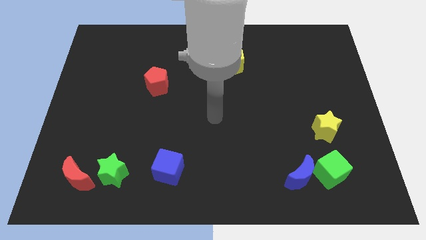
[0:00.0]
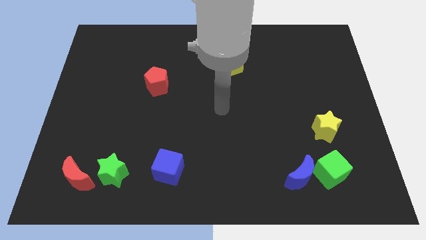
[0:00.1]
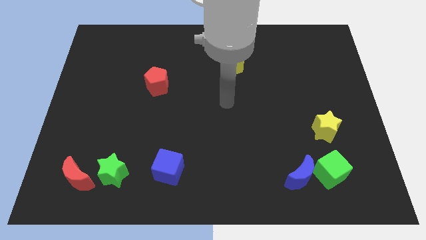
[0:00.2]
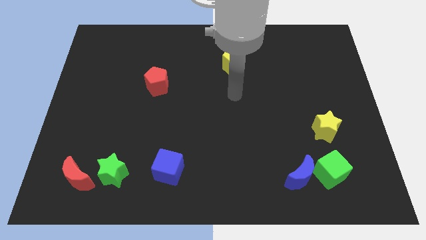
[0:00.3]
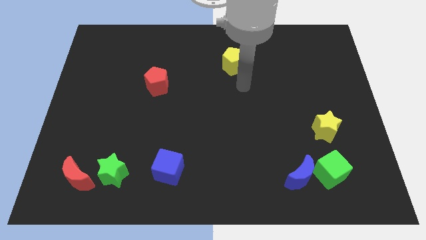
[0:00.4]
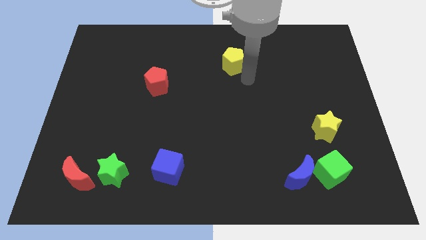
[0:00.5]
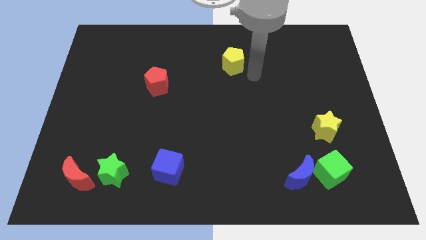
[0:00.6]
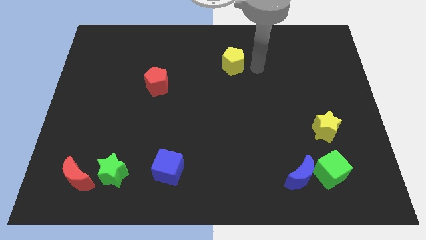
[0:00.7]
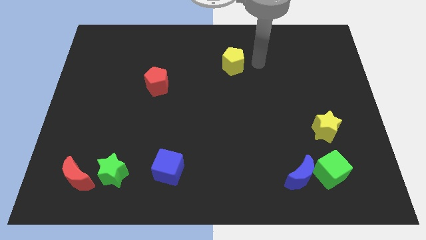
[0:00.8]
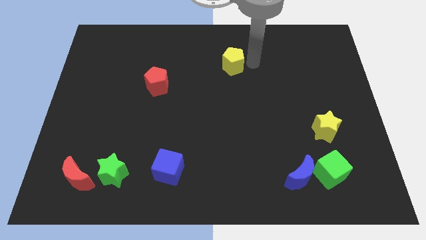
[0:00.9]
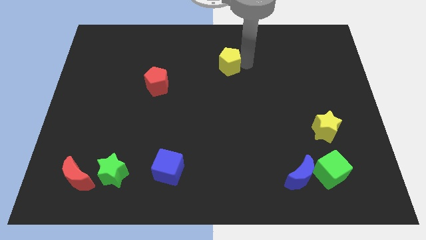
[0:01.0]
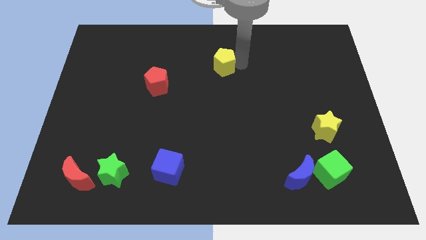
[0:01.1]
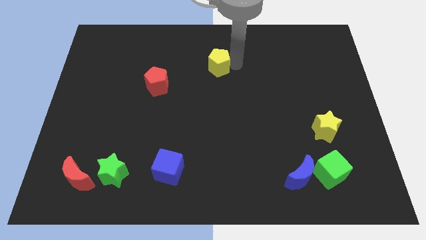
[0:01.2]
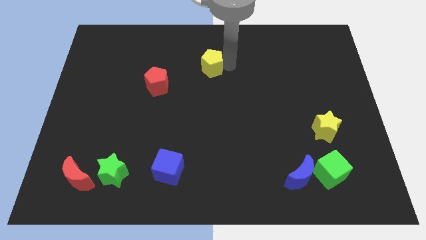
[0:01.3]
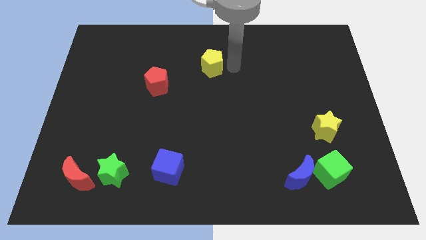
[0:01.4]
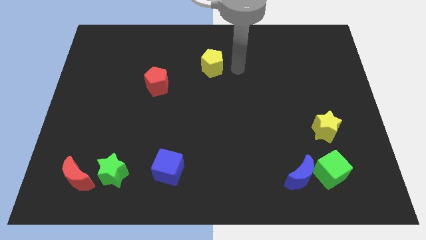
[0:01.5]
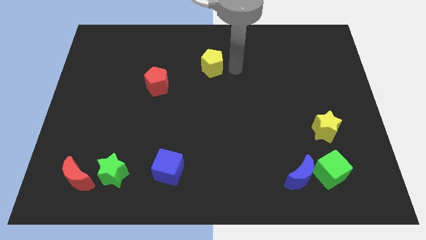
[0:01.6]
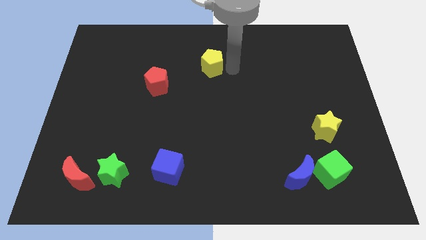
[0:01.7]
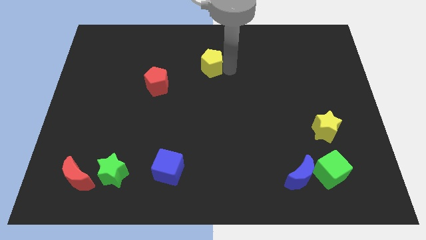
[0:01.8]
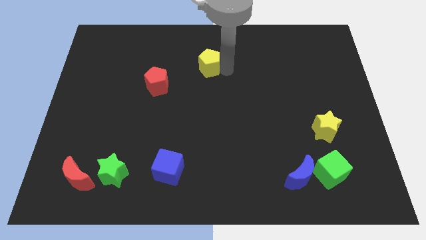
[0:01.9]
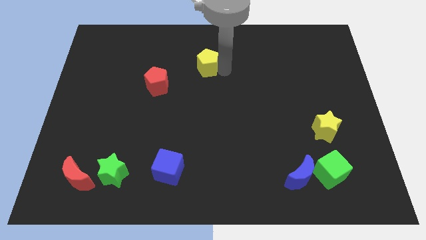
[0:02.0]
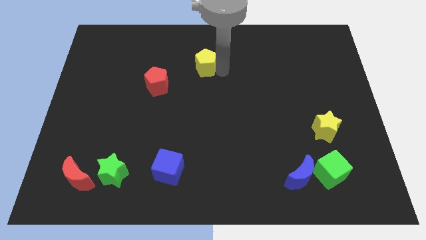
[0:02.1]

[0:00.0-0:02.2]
slightly push the yellow pentagon left

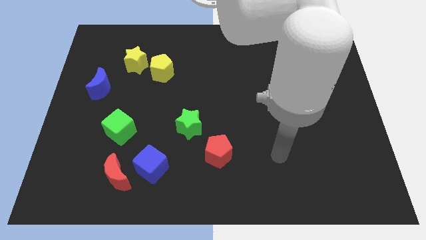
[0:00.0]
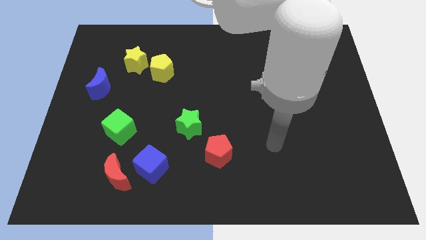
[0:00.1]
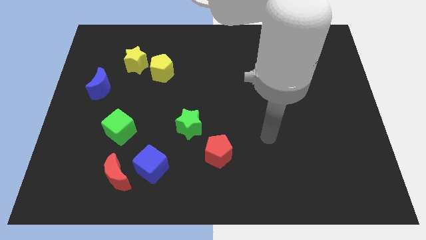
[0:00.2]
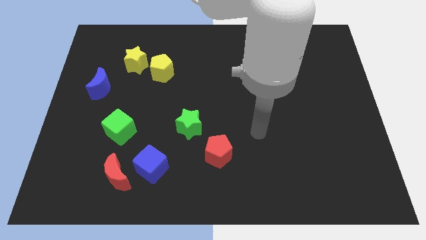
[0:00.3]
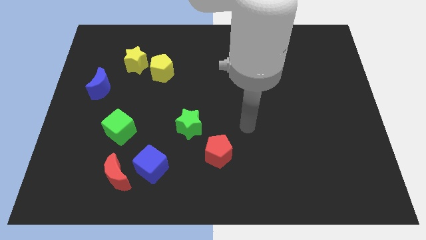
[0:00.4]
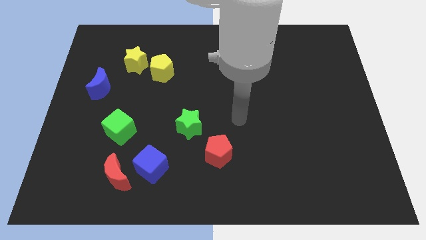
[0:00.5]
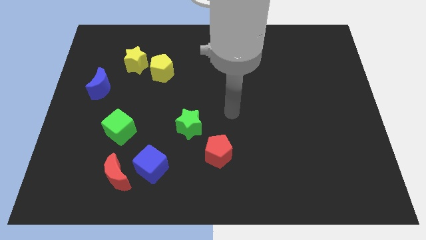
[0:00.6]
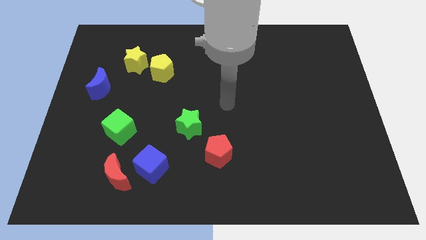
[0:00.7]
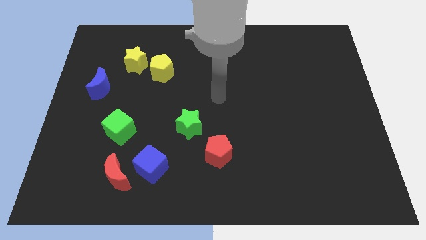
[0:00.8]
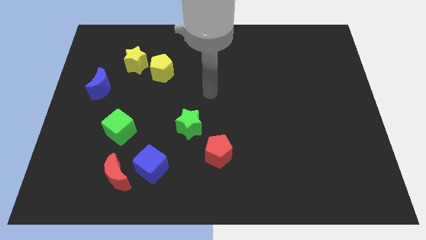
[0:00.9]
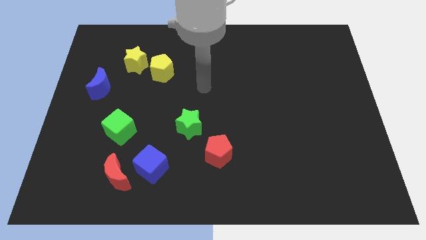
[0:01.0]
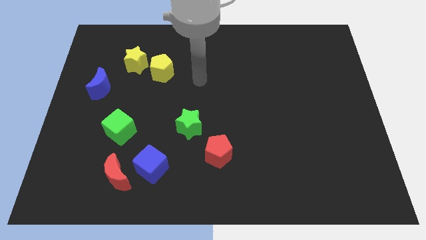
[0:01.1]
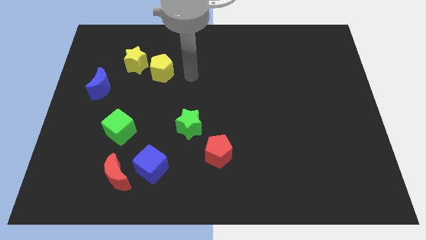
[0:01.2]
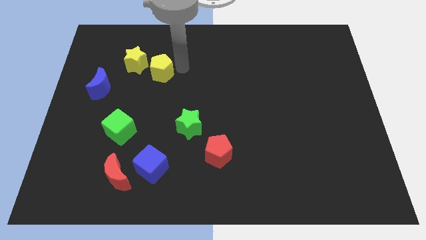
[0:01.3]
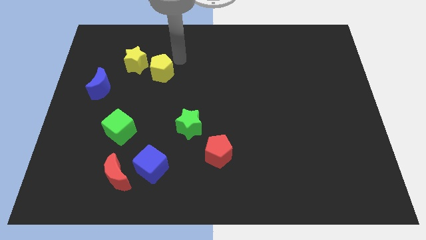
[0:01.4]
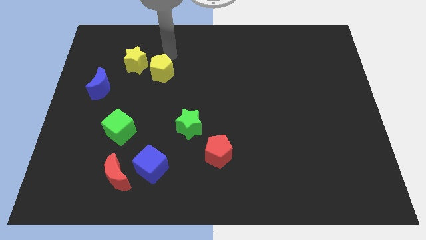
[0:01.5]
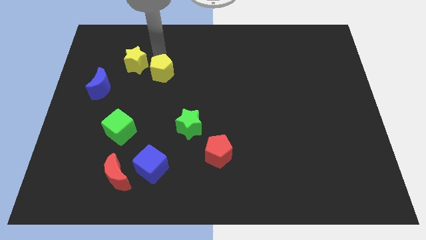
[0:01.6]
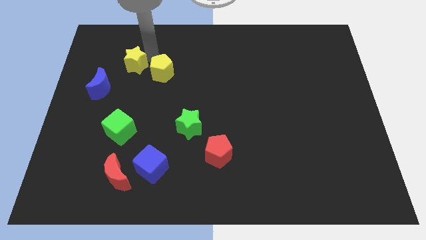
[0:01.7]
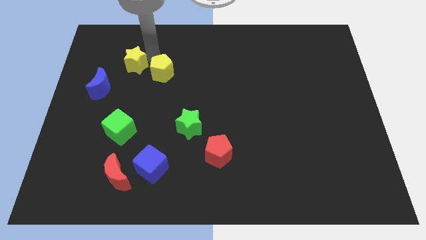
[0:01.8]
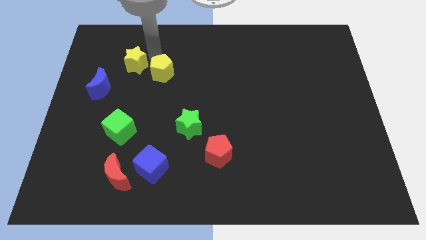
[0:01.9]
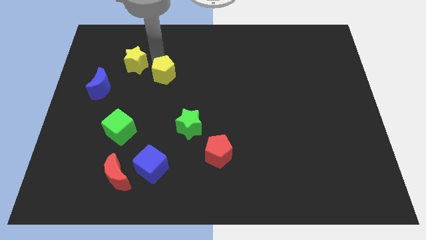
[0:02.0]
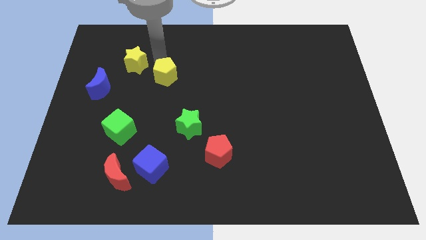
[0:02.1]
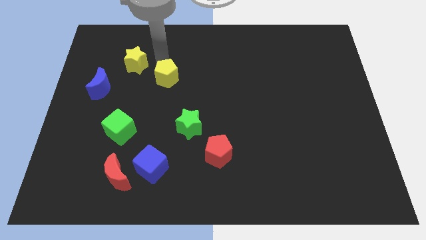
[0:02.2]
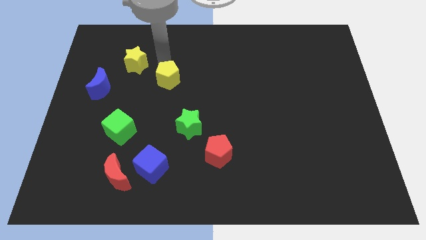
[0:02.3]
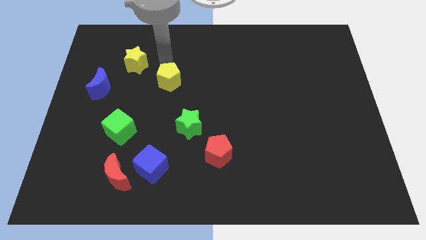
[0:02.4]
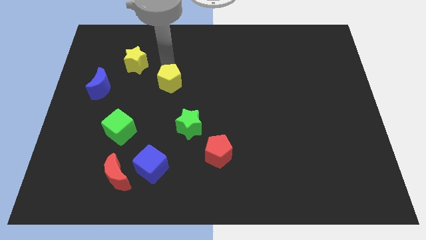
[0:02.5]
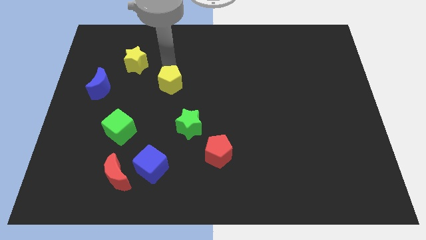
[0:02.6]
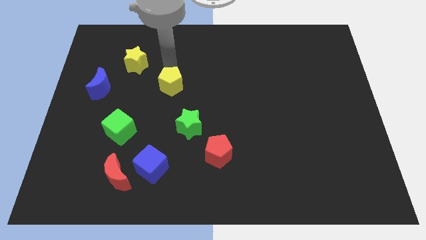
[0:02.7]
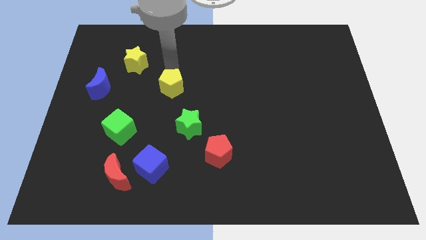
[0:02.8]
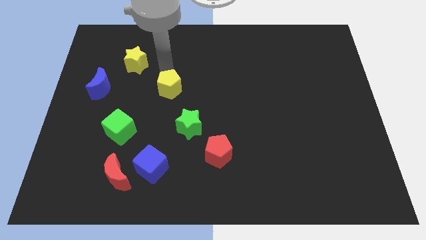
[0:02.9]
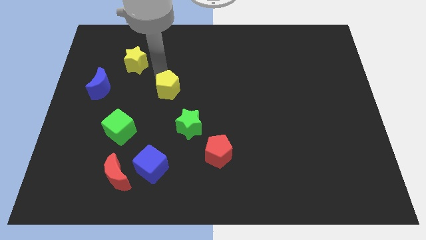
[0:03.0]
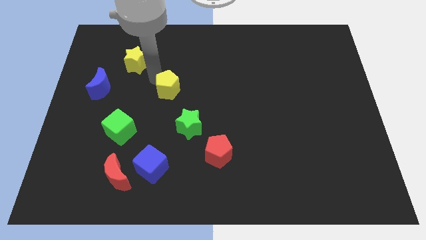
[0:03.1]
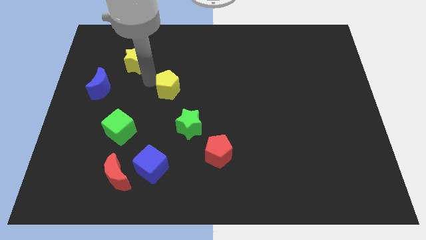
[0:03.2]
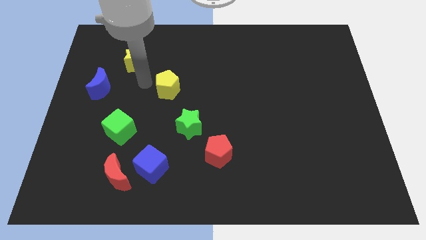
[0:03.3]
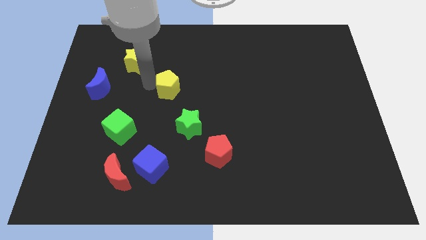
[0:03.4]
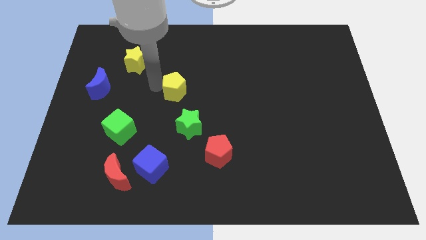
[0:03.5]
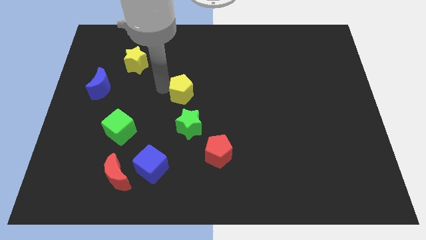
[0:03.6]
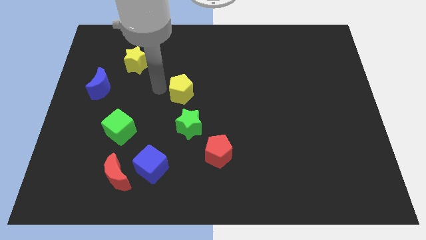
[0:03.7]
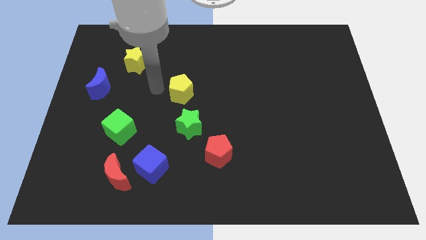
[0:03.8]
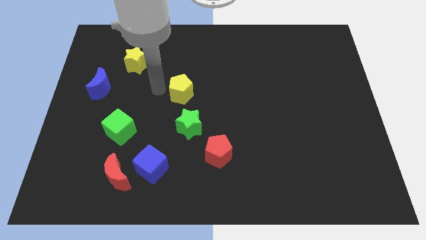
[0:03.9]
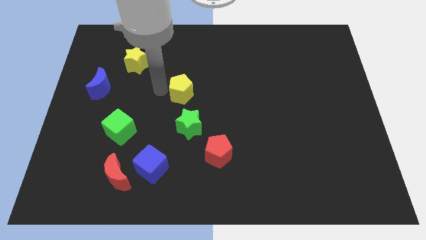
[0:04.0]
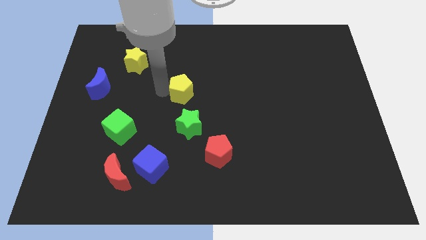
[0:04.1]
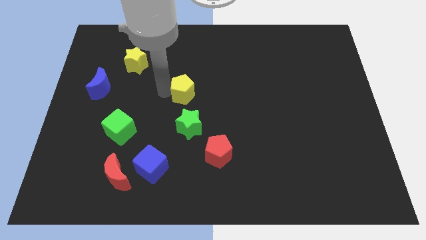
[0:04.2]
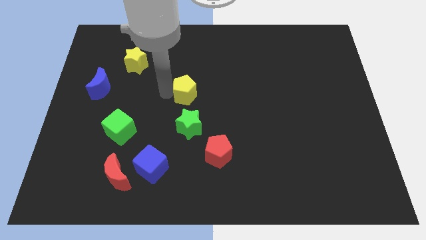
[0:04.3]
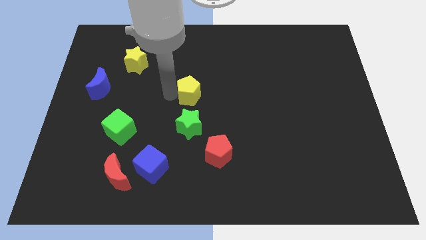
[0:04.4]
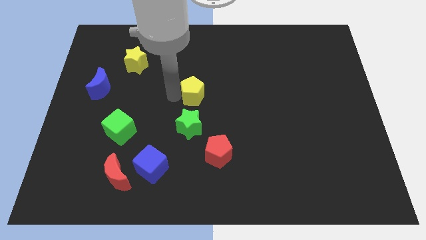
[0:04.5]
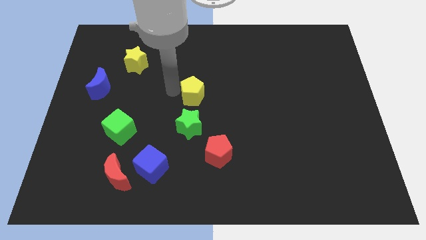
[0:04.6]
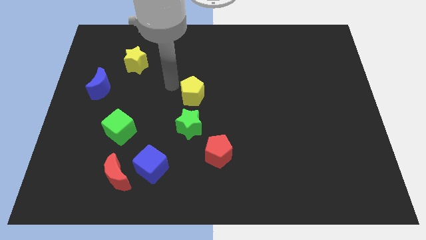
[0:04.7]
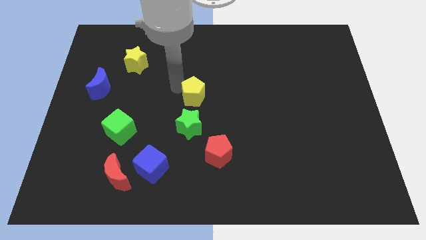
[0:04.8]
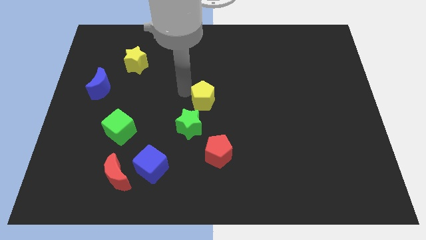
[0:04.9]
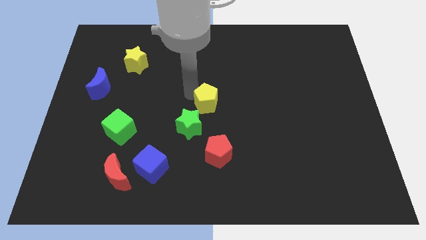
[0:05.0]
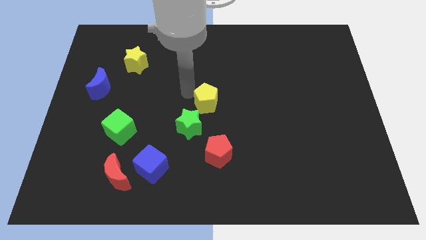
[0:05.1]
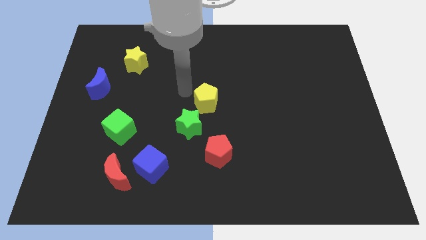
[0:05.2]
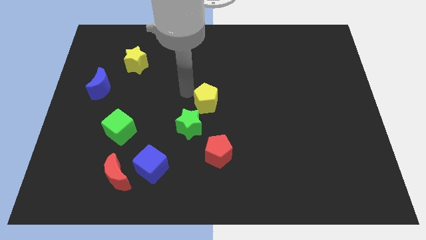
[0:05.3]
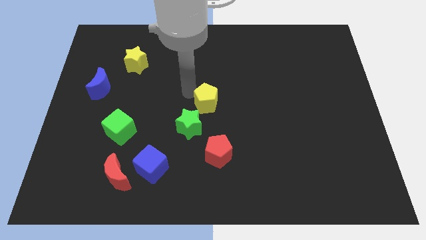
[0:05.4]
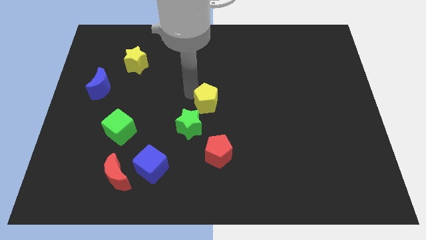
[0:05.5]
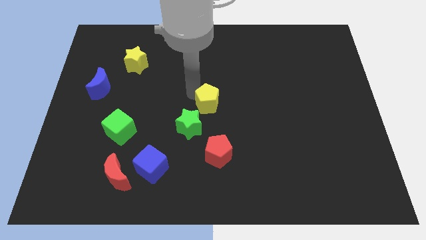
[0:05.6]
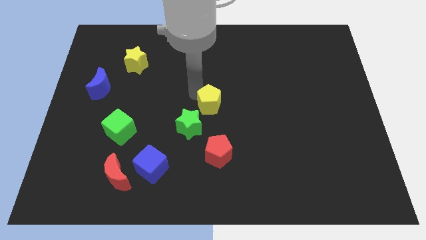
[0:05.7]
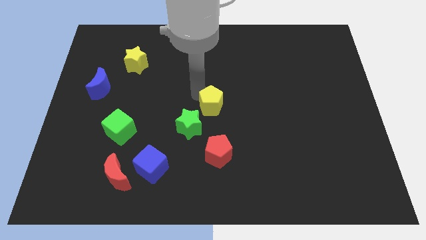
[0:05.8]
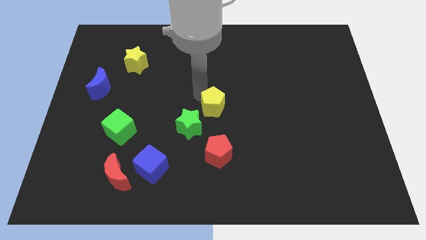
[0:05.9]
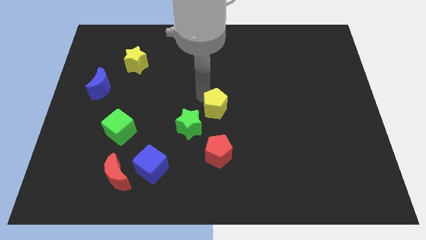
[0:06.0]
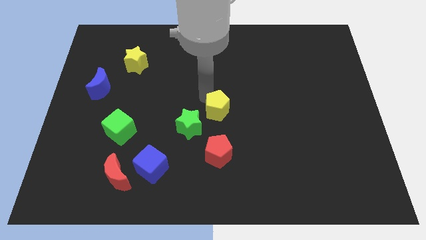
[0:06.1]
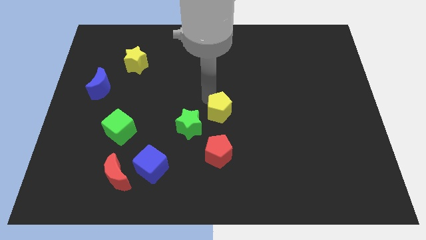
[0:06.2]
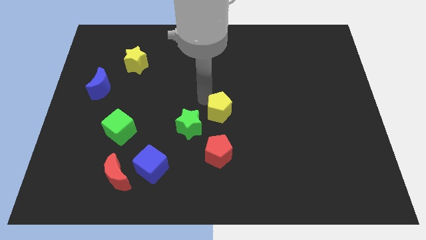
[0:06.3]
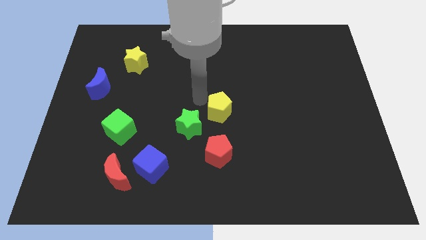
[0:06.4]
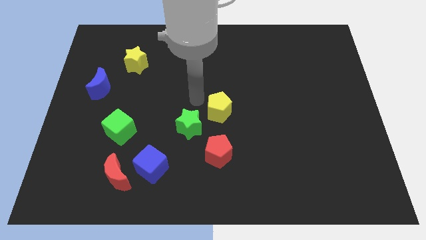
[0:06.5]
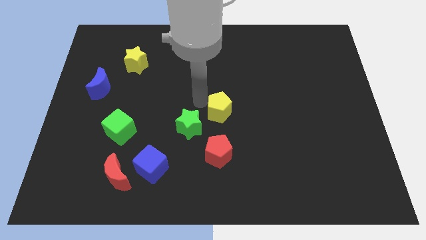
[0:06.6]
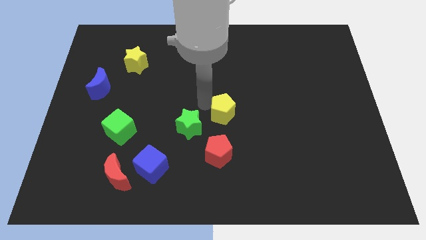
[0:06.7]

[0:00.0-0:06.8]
slide the yellow pentagon down and to the right diagonally
